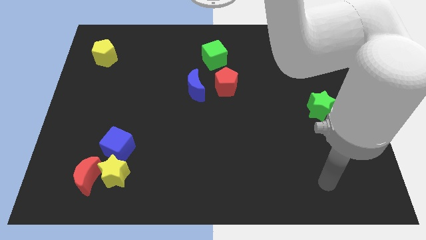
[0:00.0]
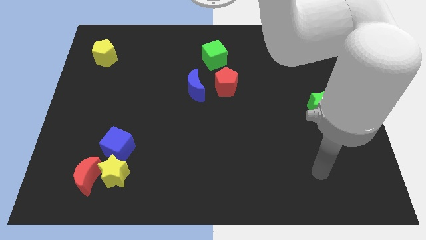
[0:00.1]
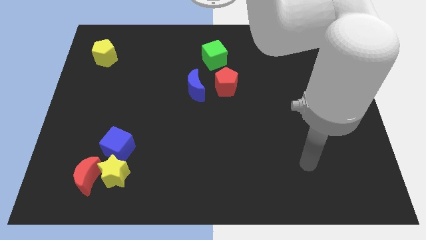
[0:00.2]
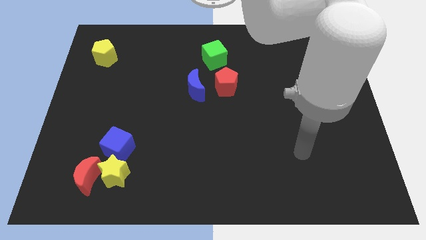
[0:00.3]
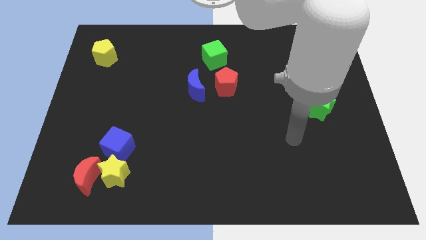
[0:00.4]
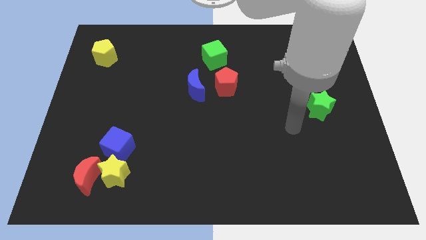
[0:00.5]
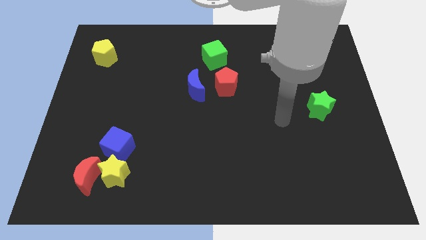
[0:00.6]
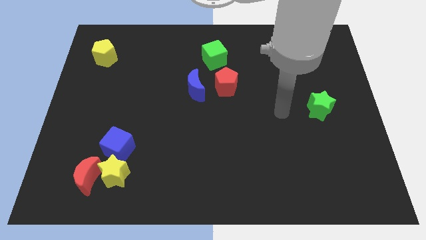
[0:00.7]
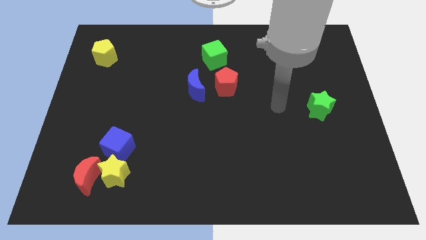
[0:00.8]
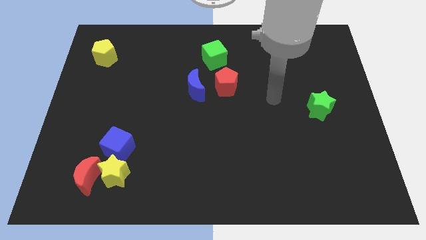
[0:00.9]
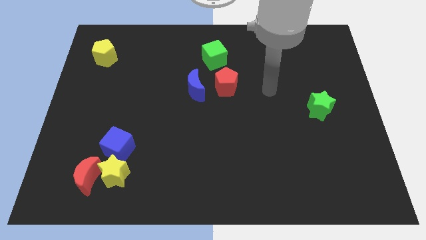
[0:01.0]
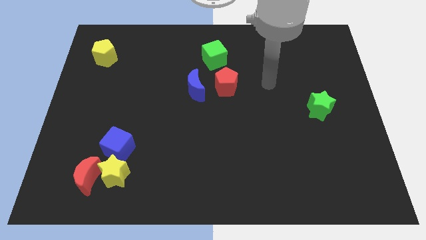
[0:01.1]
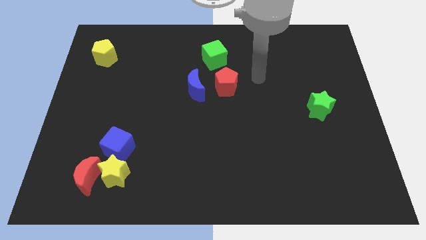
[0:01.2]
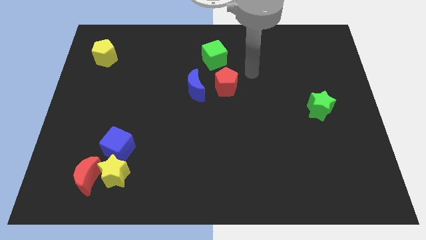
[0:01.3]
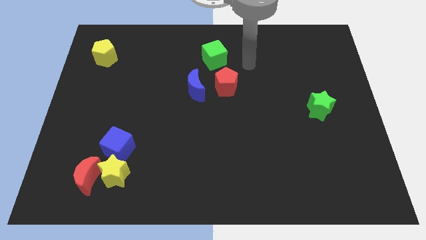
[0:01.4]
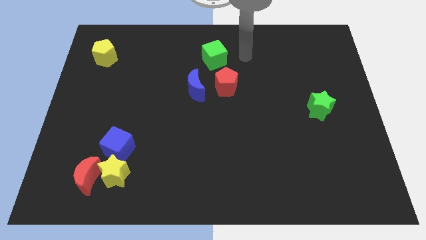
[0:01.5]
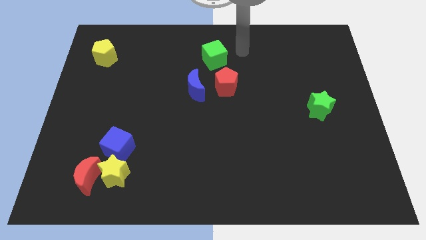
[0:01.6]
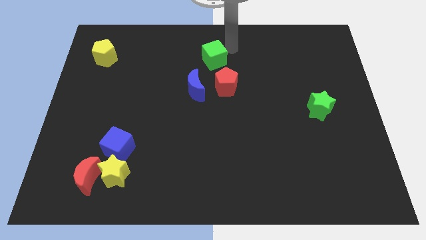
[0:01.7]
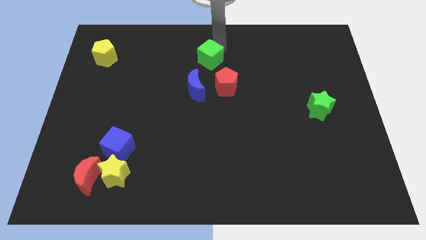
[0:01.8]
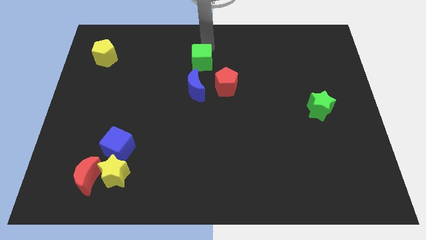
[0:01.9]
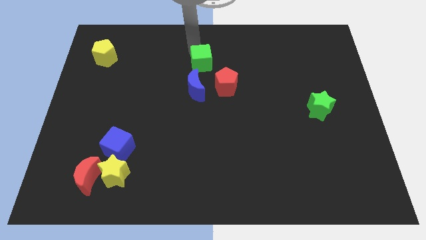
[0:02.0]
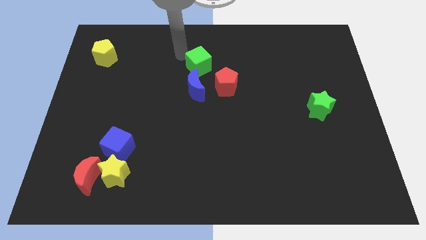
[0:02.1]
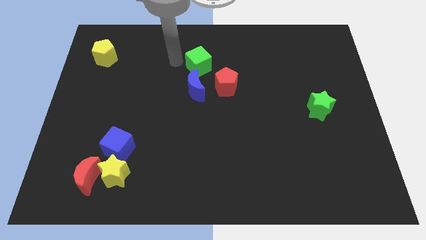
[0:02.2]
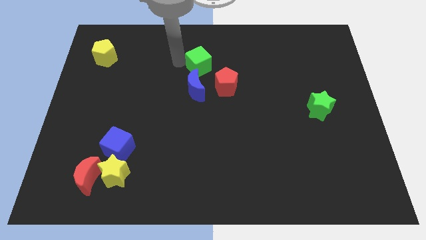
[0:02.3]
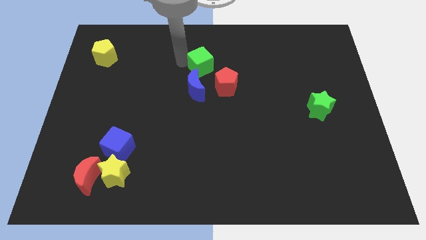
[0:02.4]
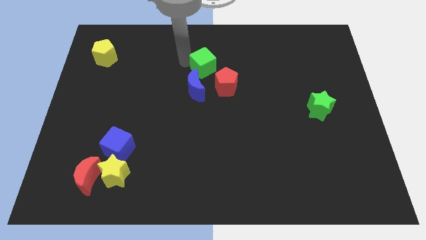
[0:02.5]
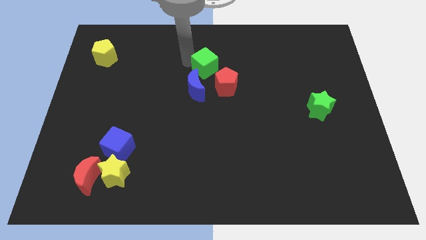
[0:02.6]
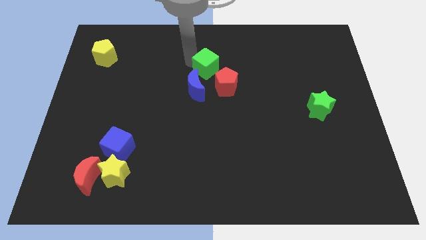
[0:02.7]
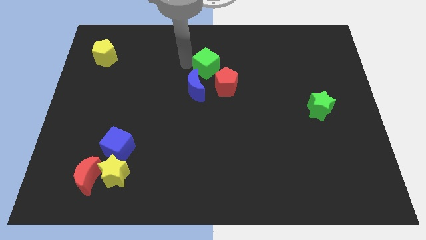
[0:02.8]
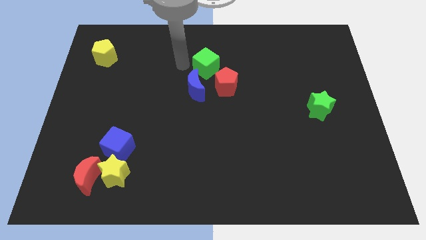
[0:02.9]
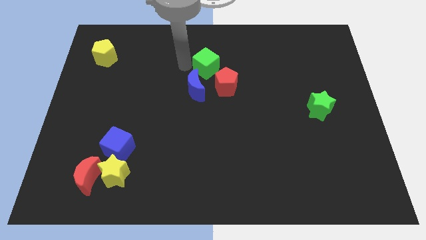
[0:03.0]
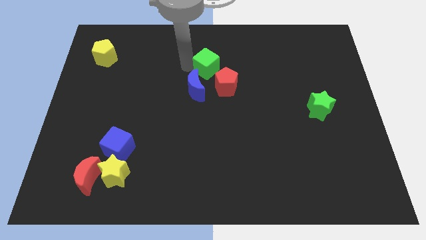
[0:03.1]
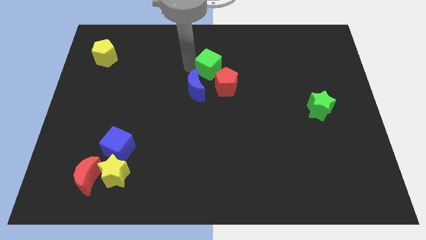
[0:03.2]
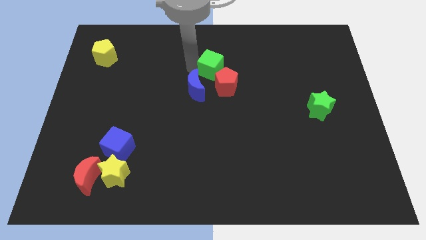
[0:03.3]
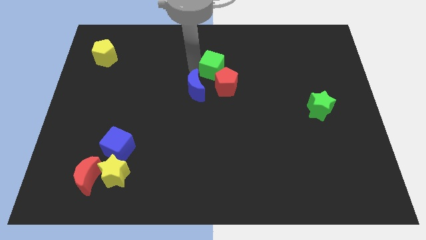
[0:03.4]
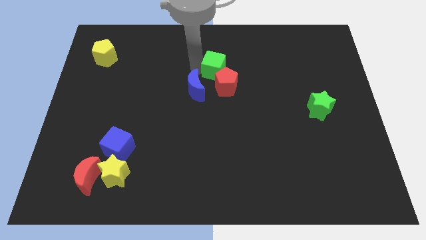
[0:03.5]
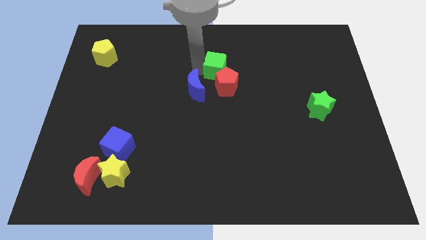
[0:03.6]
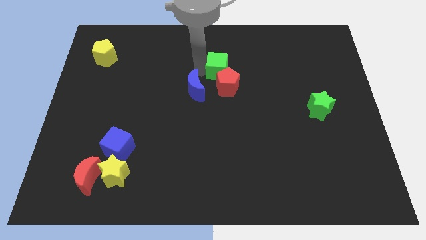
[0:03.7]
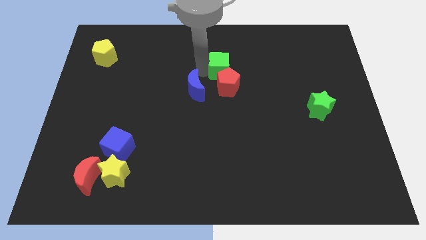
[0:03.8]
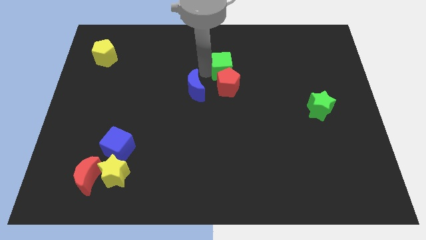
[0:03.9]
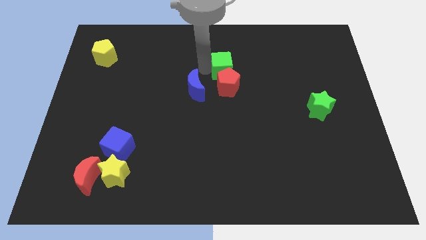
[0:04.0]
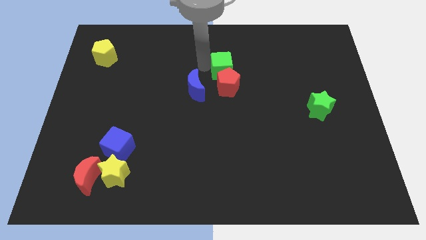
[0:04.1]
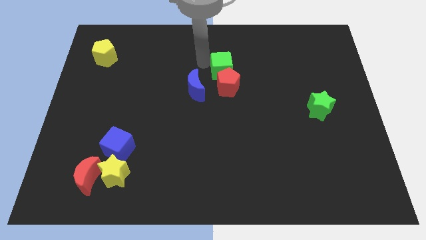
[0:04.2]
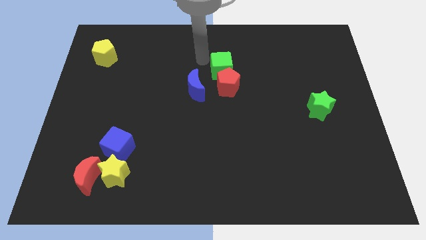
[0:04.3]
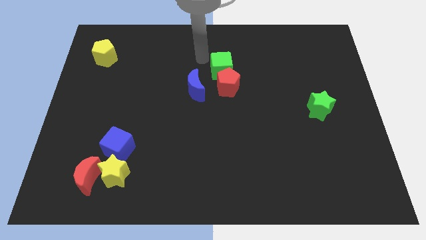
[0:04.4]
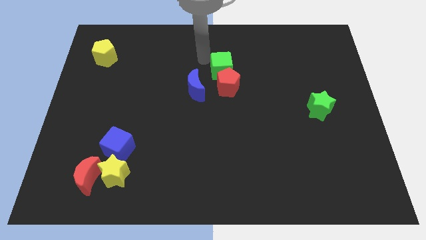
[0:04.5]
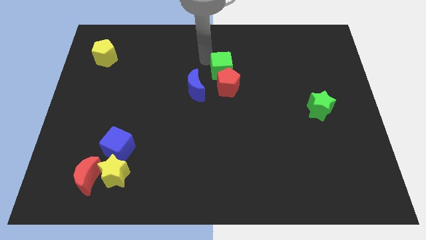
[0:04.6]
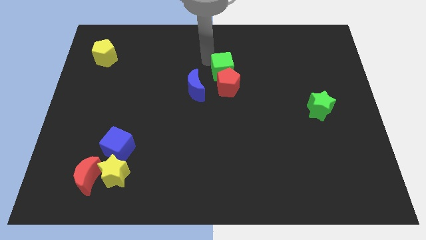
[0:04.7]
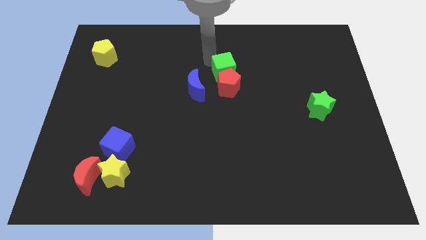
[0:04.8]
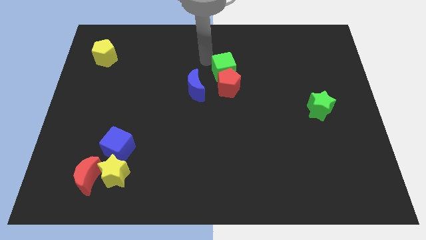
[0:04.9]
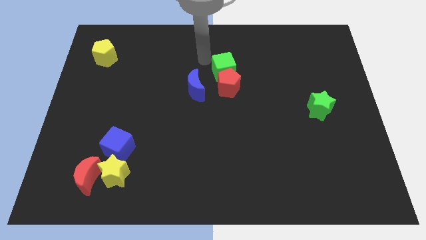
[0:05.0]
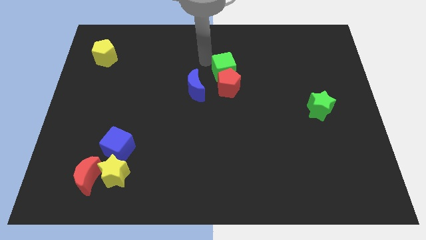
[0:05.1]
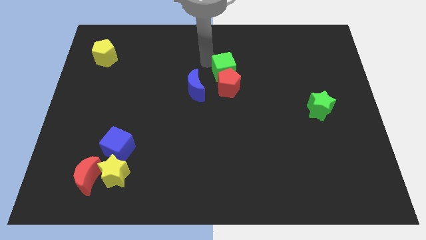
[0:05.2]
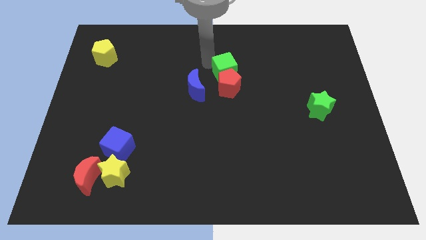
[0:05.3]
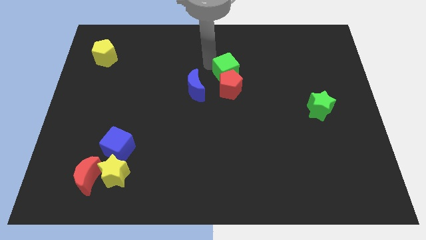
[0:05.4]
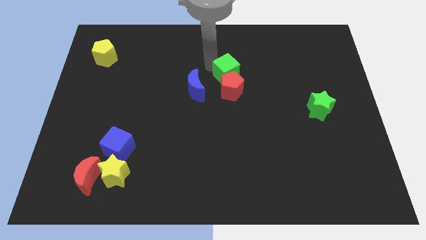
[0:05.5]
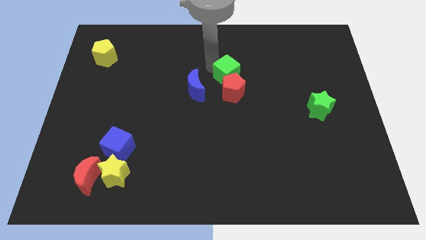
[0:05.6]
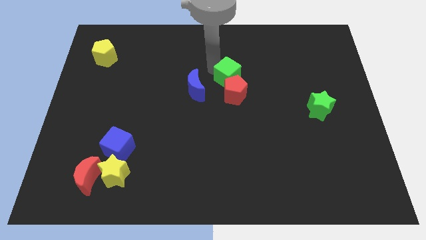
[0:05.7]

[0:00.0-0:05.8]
slide the green cube a little bit downwards and then to the right

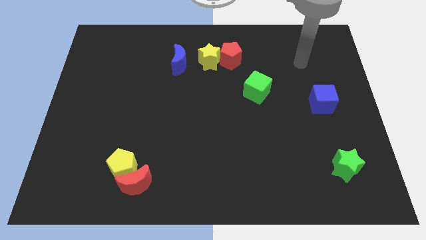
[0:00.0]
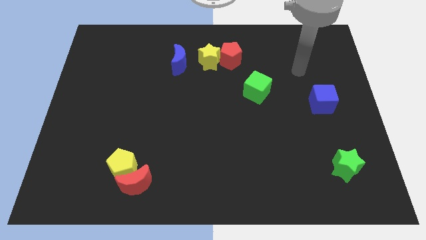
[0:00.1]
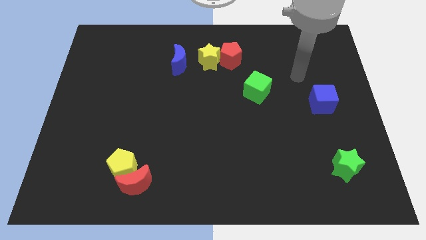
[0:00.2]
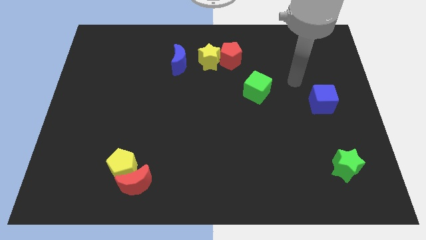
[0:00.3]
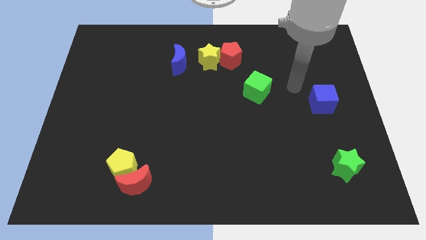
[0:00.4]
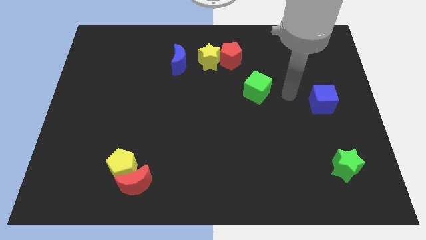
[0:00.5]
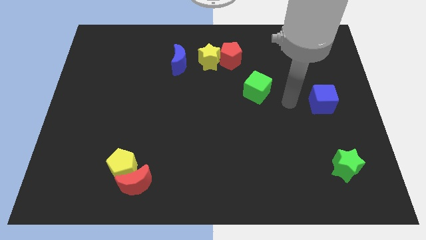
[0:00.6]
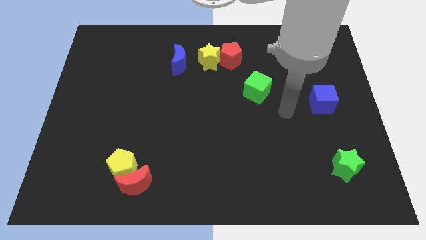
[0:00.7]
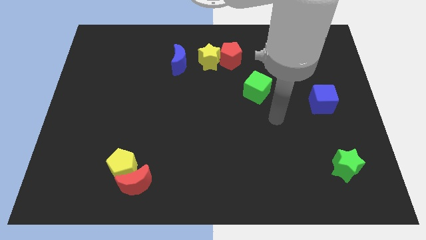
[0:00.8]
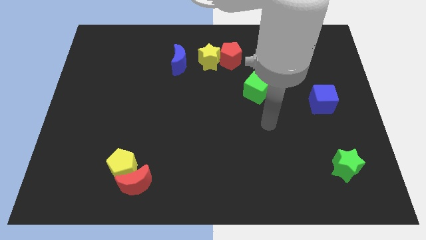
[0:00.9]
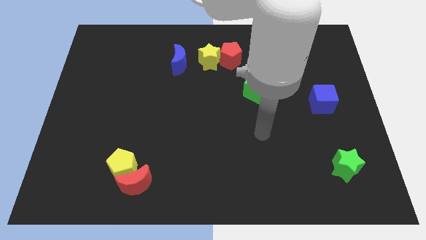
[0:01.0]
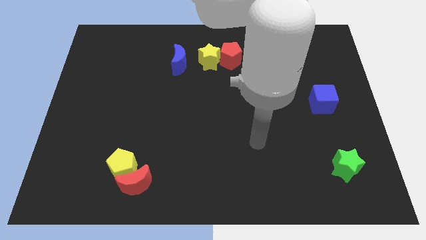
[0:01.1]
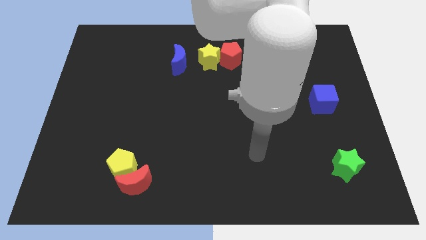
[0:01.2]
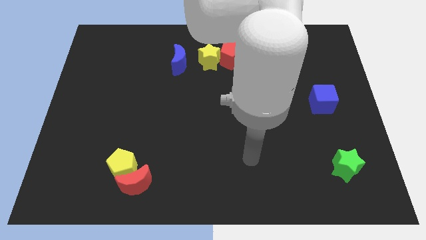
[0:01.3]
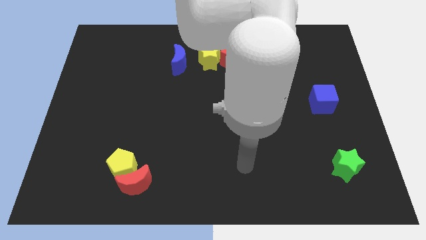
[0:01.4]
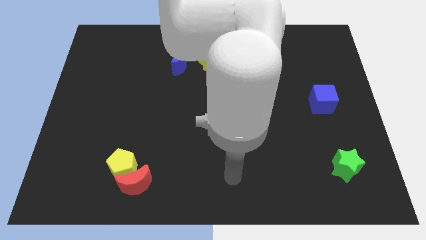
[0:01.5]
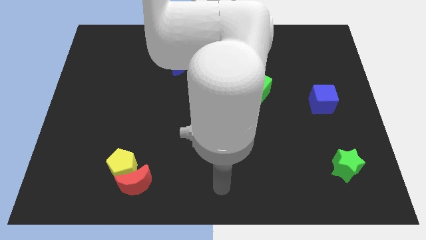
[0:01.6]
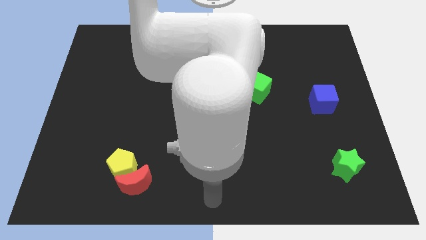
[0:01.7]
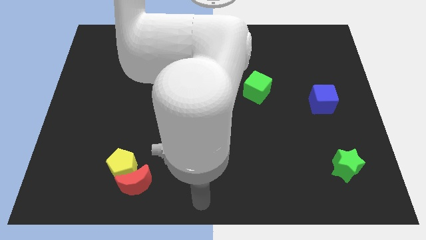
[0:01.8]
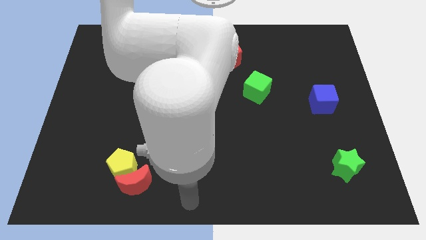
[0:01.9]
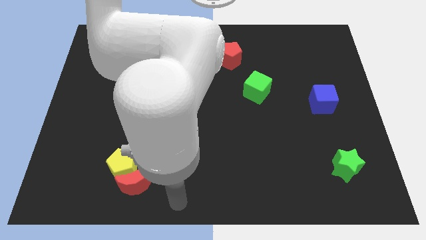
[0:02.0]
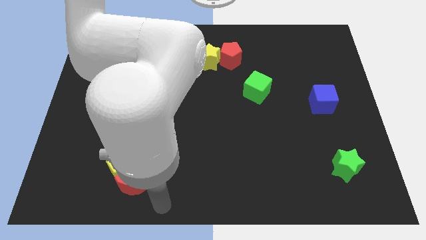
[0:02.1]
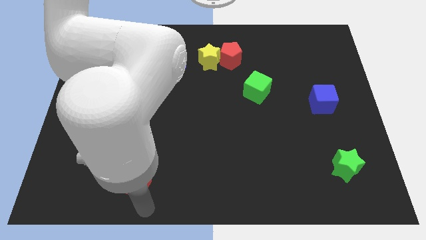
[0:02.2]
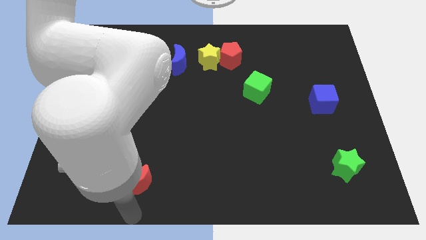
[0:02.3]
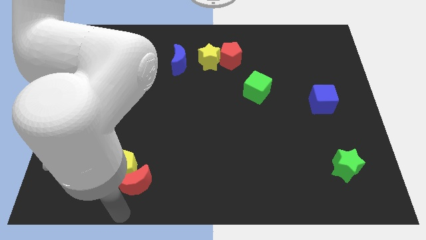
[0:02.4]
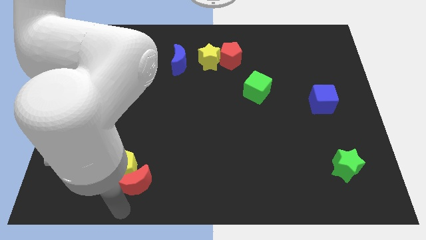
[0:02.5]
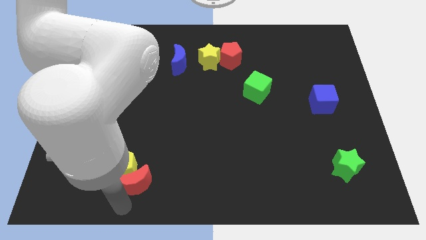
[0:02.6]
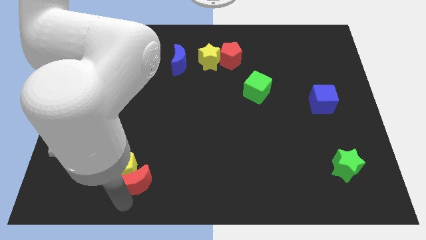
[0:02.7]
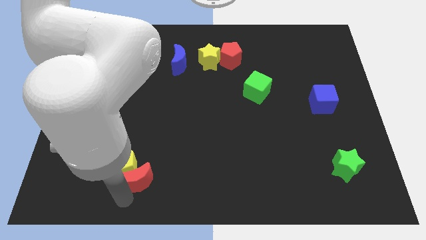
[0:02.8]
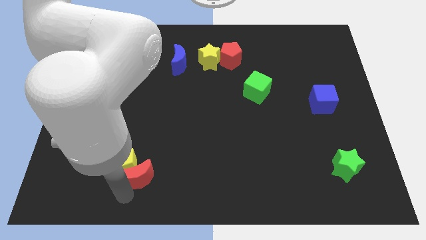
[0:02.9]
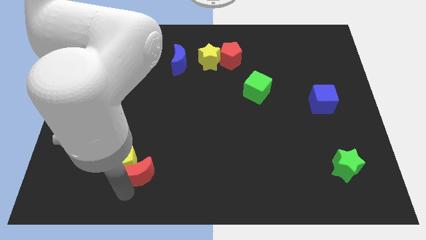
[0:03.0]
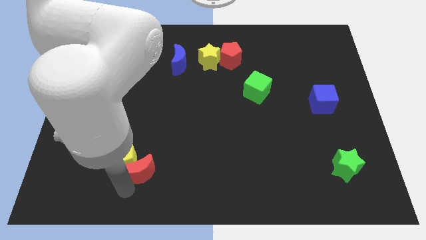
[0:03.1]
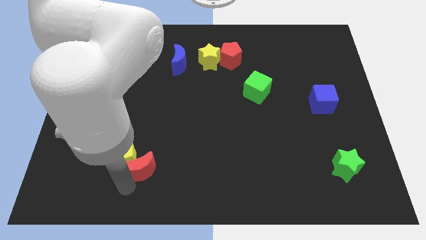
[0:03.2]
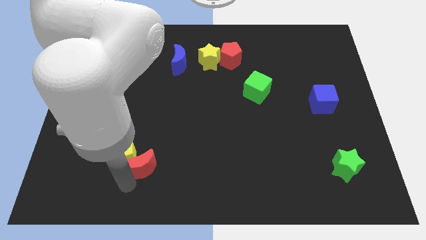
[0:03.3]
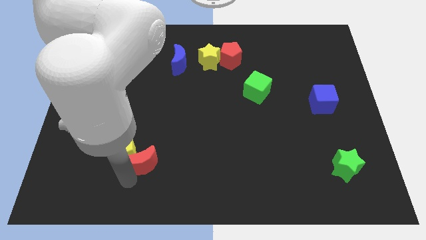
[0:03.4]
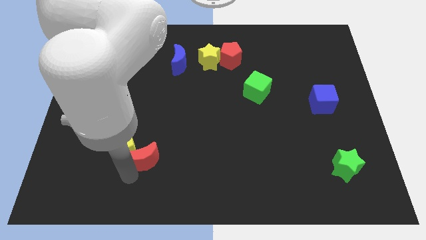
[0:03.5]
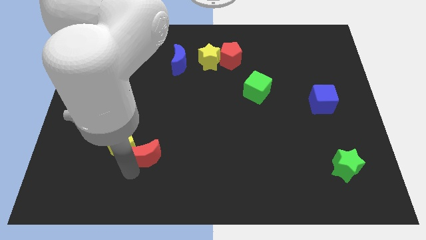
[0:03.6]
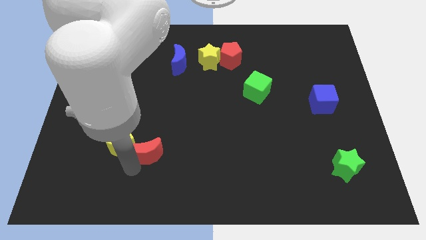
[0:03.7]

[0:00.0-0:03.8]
slide the red moon up a little
